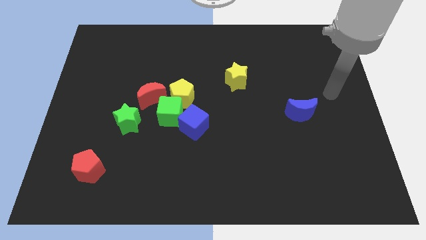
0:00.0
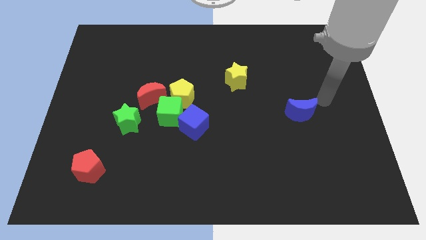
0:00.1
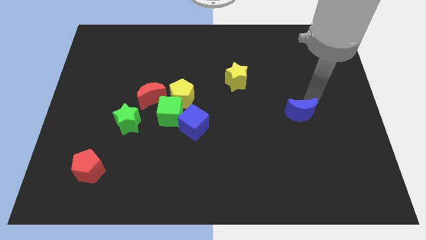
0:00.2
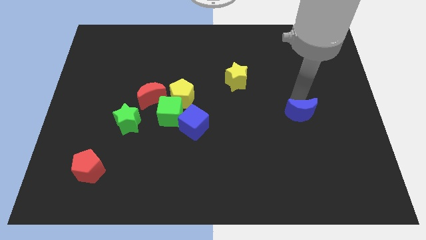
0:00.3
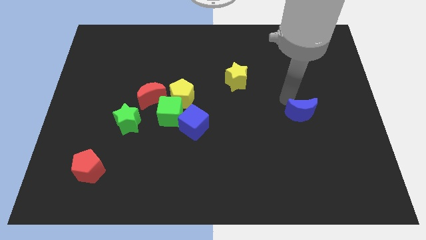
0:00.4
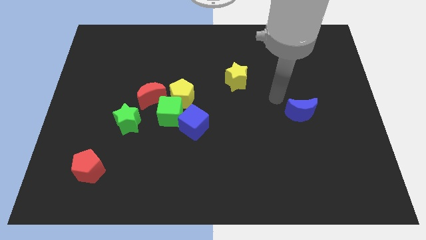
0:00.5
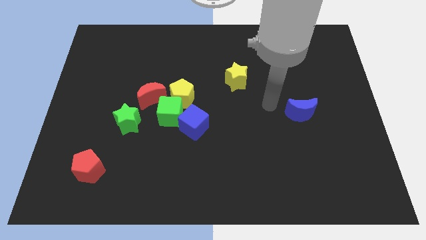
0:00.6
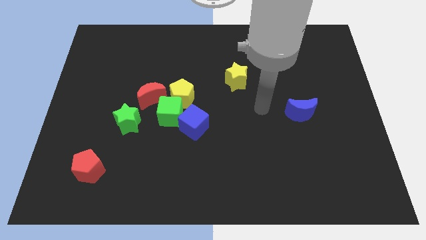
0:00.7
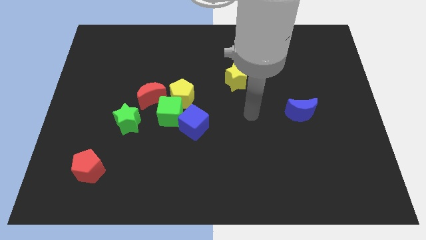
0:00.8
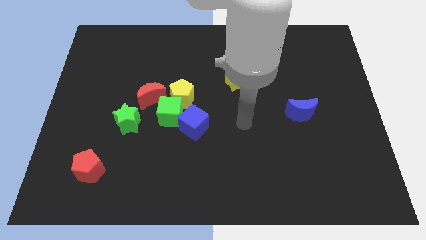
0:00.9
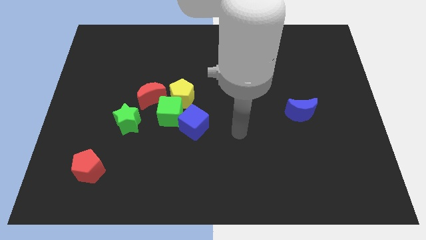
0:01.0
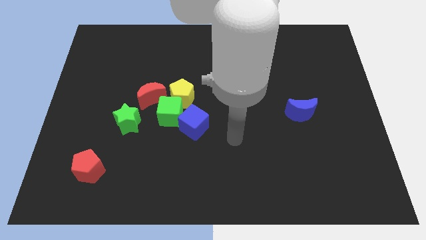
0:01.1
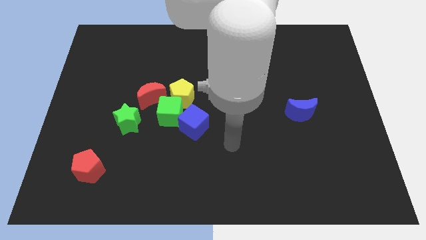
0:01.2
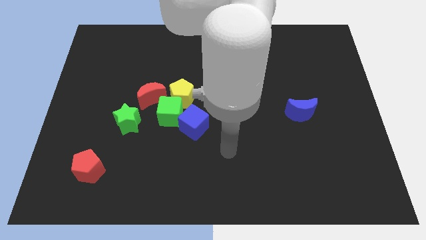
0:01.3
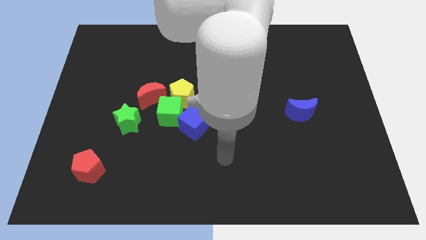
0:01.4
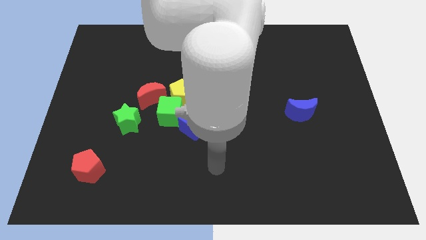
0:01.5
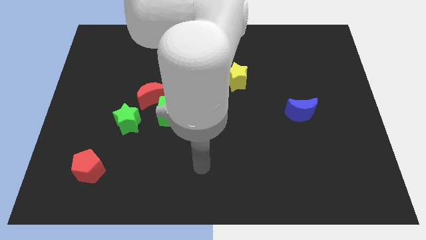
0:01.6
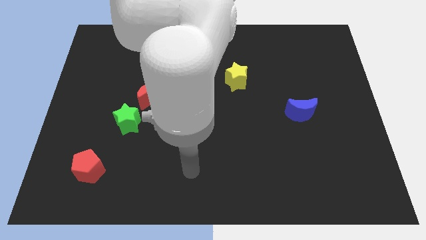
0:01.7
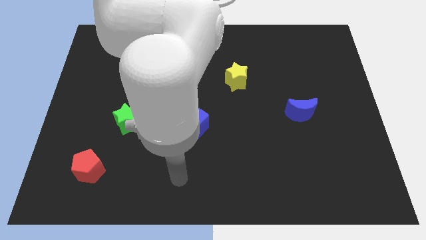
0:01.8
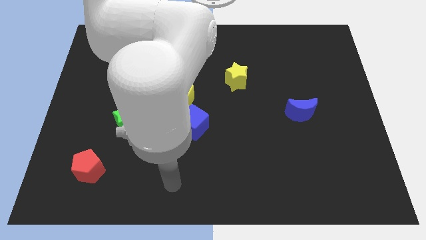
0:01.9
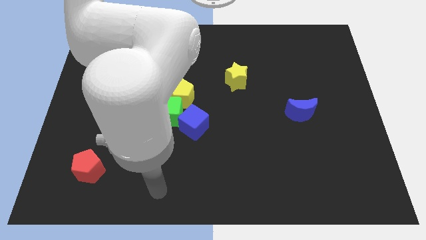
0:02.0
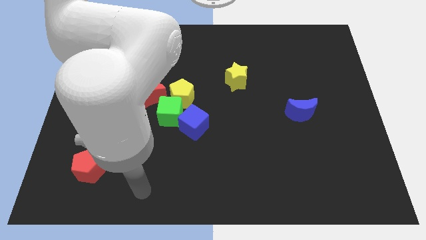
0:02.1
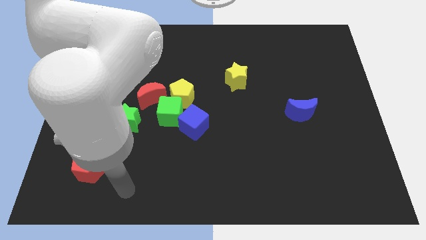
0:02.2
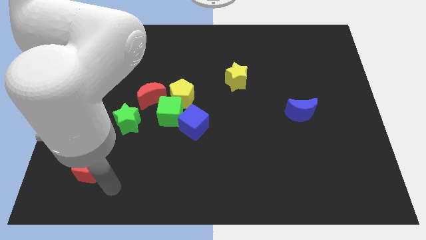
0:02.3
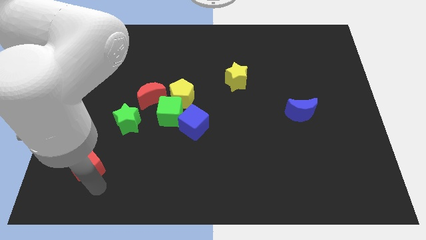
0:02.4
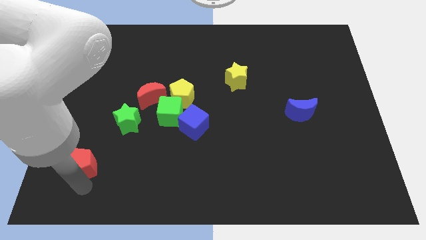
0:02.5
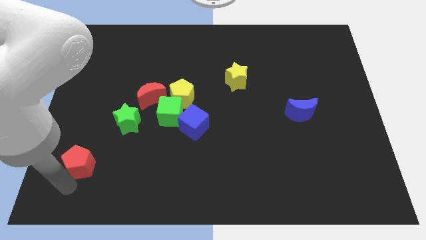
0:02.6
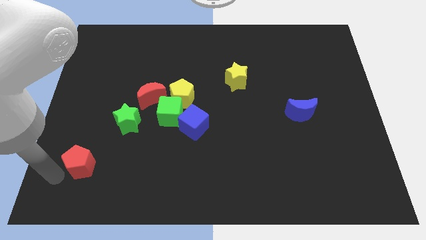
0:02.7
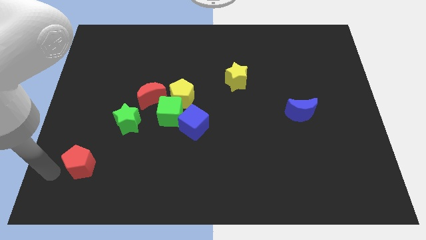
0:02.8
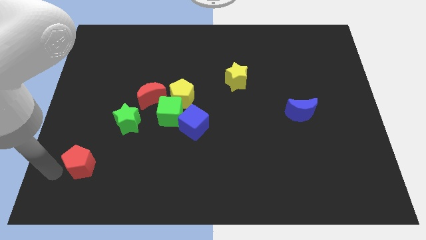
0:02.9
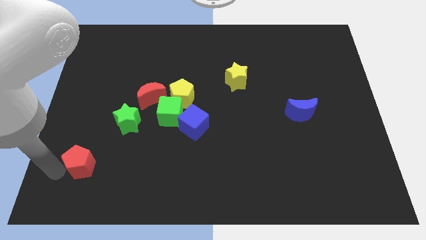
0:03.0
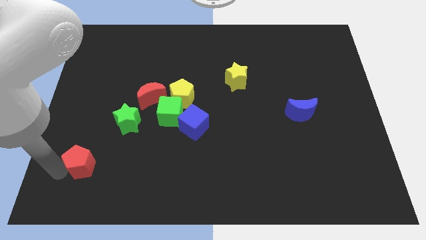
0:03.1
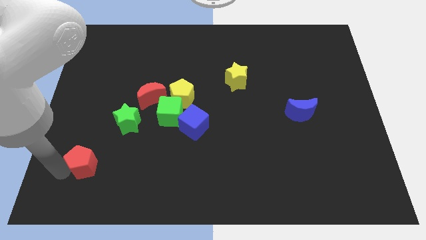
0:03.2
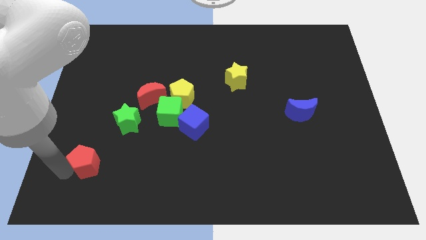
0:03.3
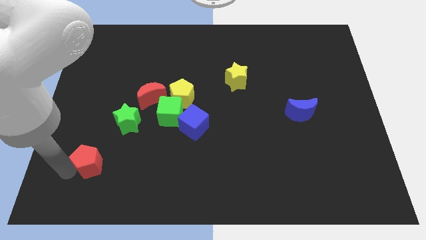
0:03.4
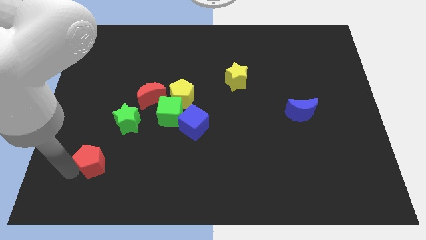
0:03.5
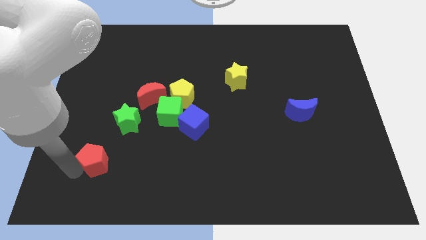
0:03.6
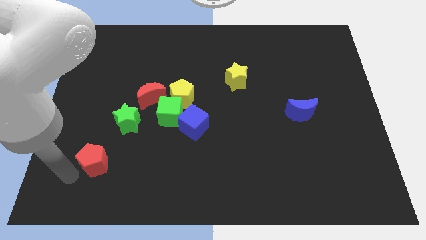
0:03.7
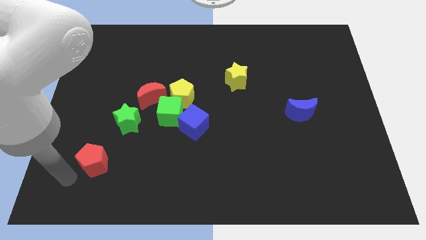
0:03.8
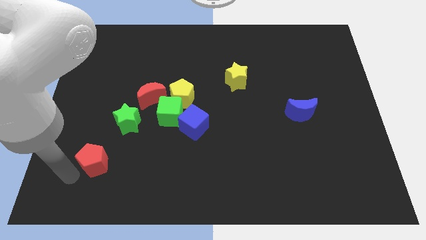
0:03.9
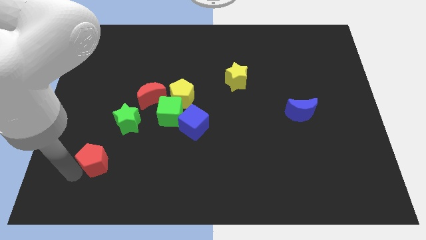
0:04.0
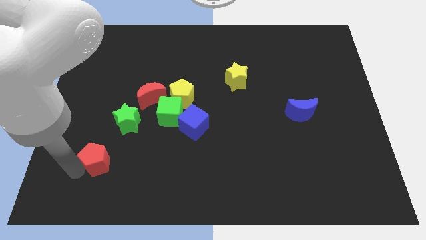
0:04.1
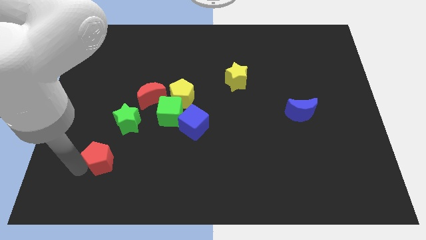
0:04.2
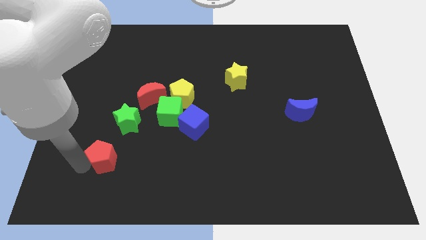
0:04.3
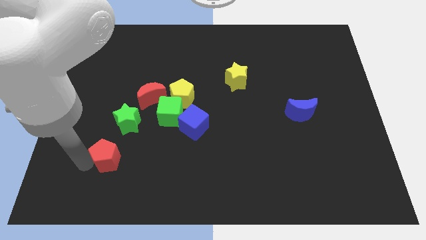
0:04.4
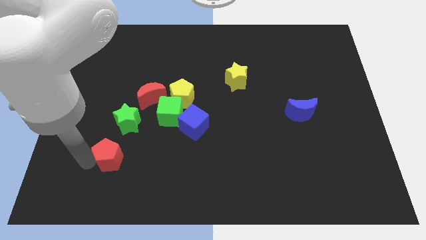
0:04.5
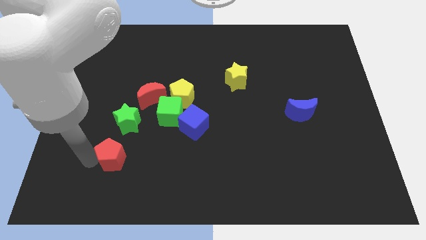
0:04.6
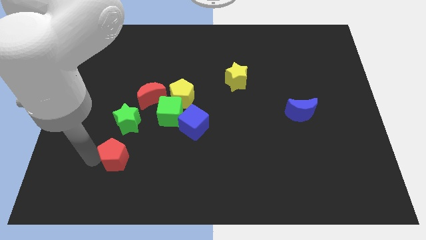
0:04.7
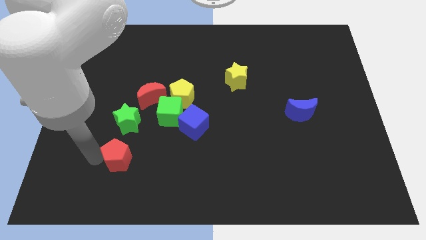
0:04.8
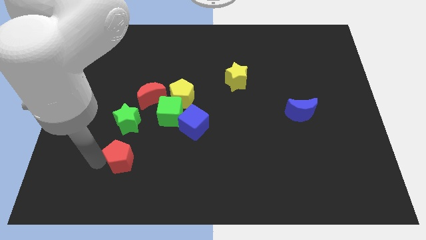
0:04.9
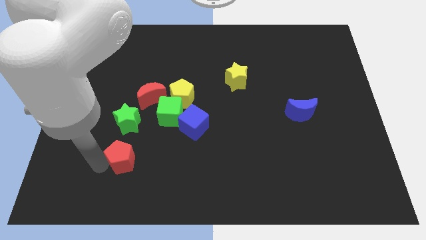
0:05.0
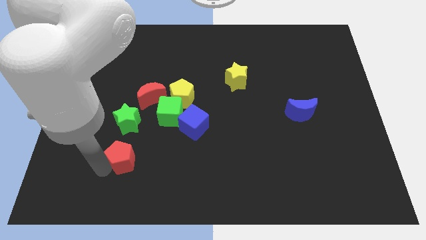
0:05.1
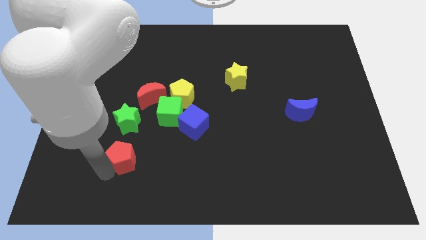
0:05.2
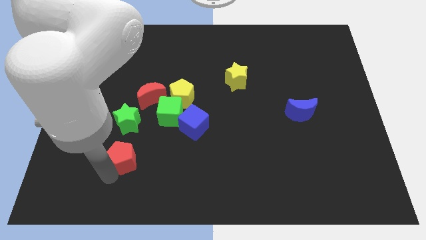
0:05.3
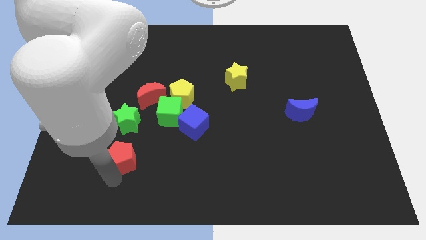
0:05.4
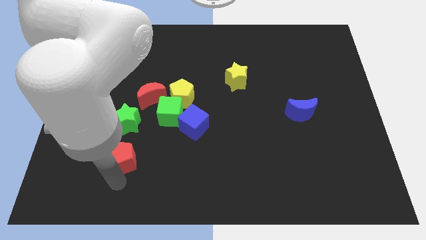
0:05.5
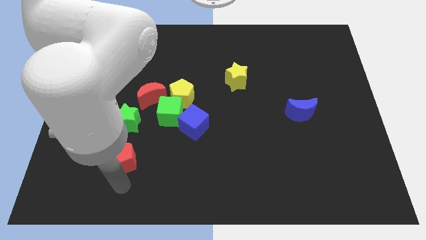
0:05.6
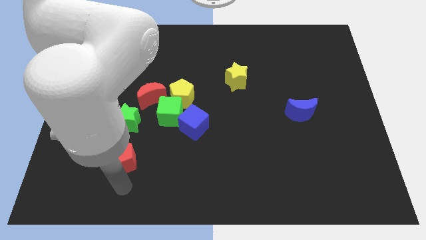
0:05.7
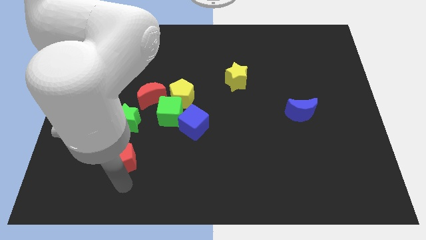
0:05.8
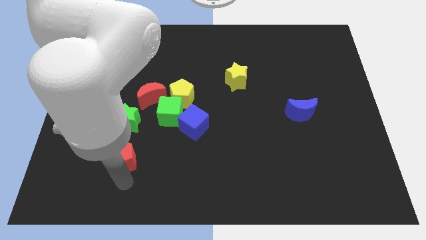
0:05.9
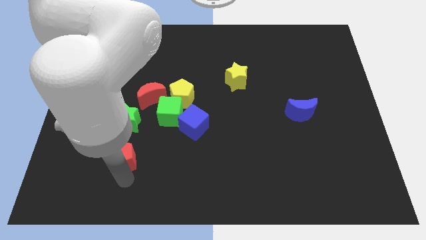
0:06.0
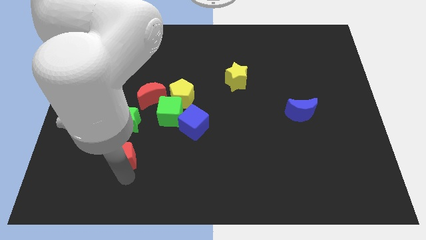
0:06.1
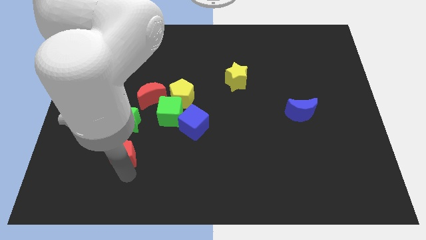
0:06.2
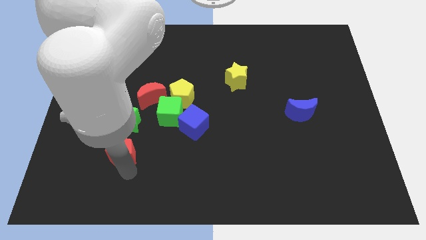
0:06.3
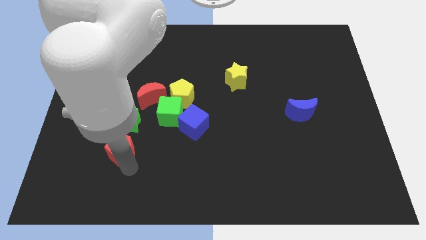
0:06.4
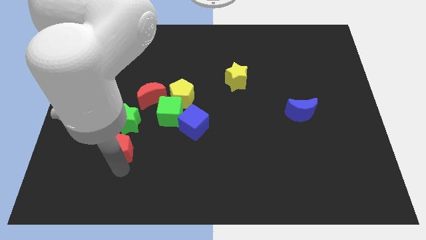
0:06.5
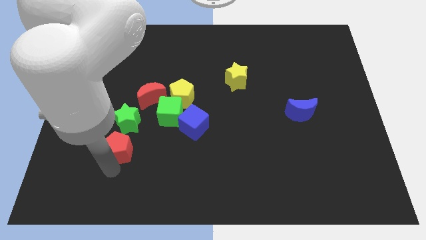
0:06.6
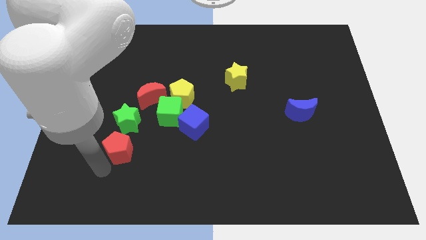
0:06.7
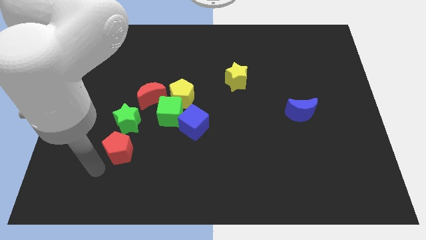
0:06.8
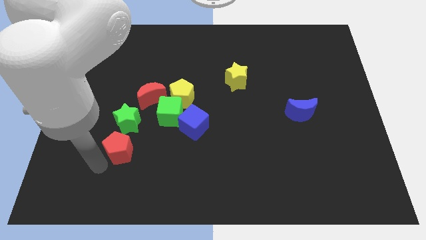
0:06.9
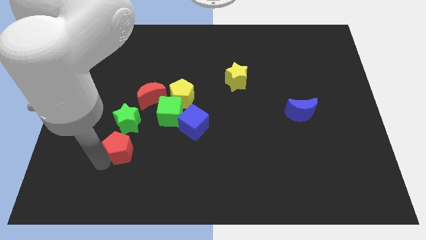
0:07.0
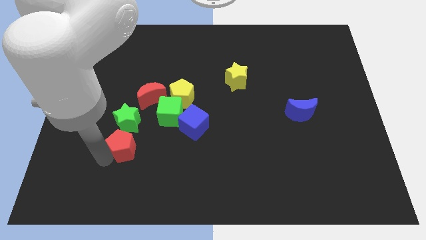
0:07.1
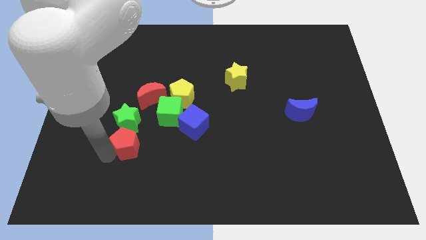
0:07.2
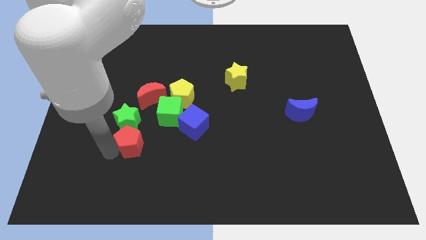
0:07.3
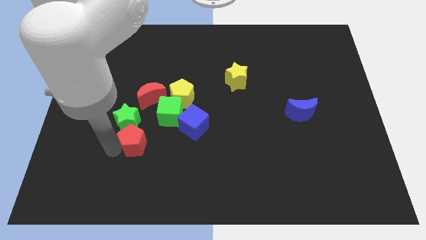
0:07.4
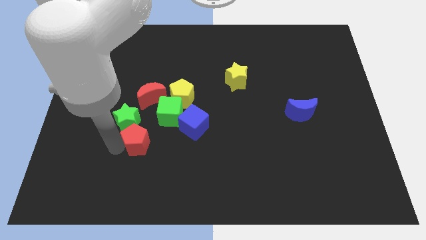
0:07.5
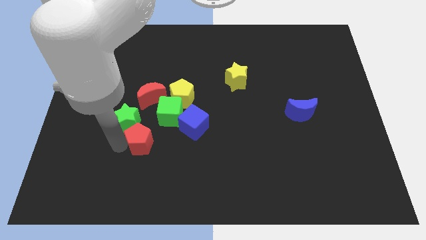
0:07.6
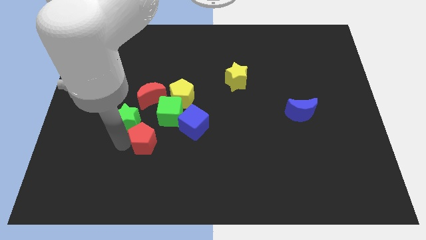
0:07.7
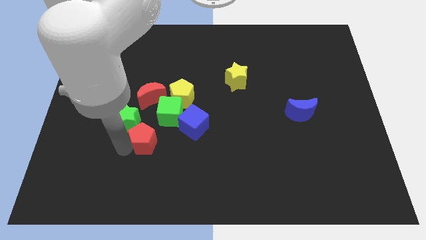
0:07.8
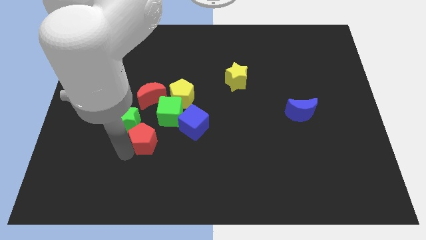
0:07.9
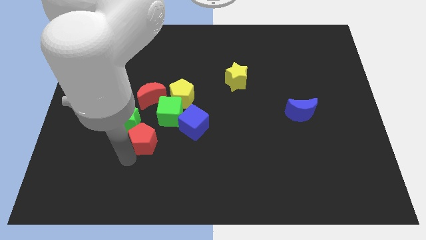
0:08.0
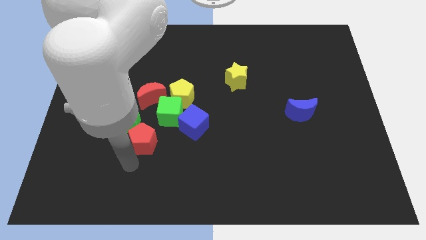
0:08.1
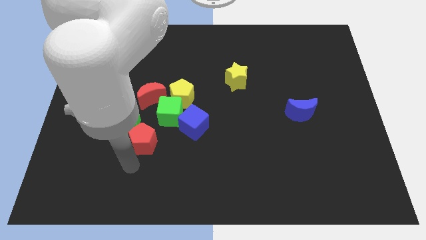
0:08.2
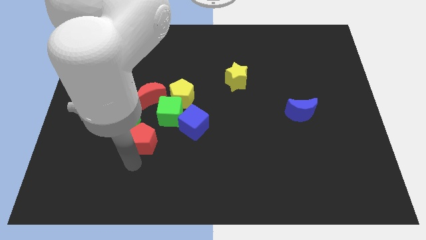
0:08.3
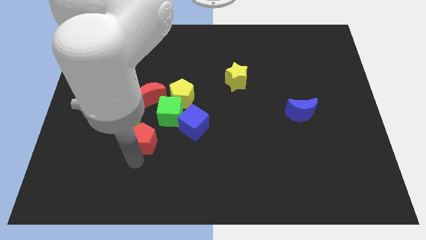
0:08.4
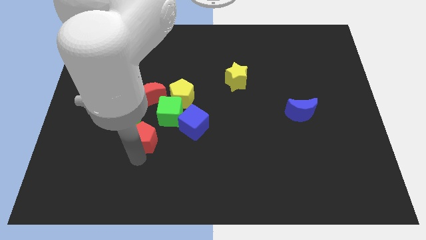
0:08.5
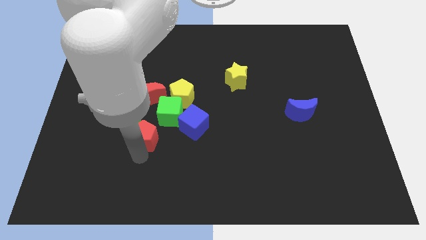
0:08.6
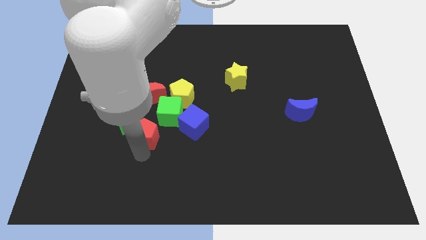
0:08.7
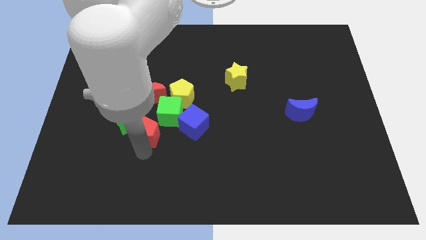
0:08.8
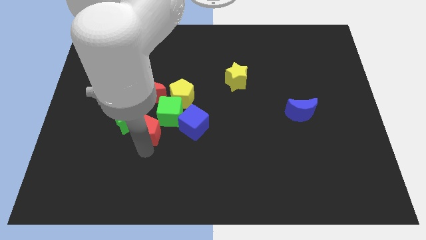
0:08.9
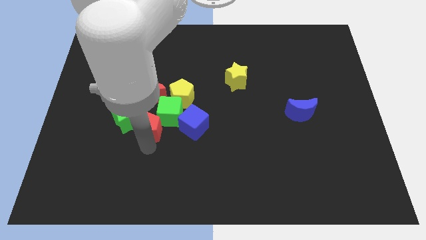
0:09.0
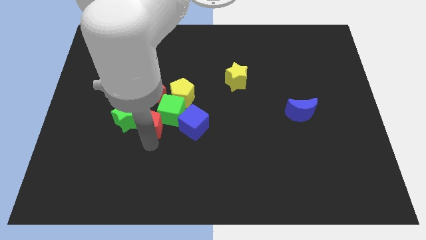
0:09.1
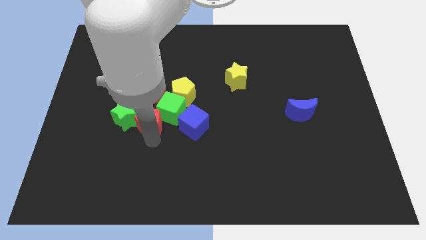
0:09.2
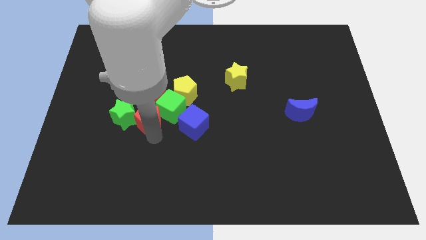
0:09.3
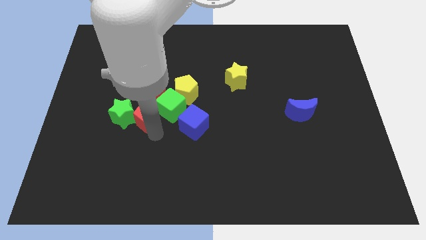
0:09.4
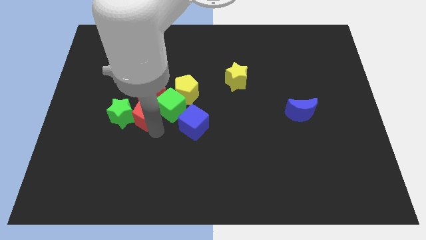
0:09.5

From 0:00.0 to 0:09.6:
slide the red pentagon towards the red moon
